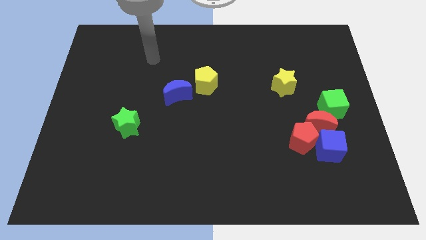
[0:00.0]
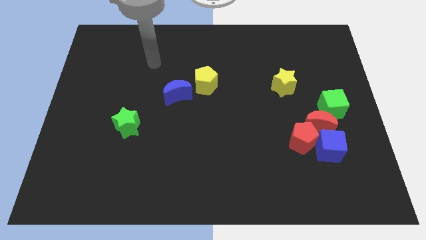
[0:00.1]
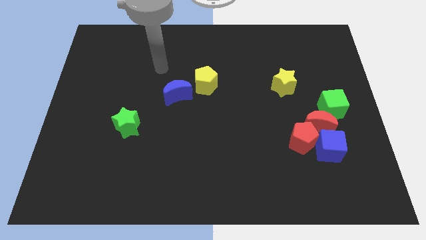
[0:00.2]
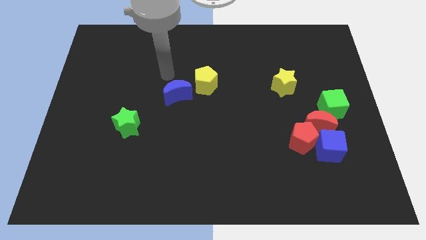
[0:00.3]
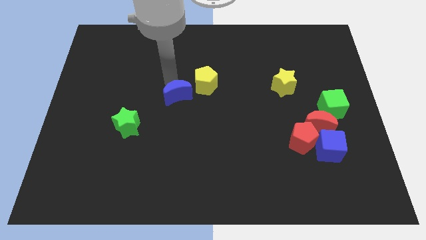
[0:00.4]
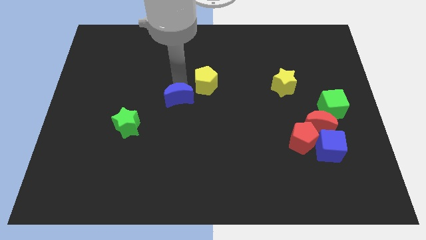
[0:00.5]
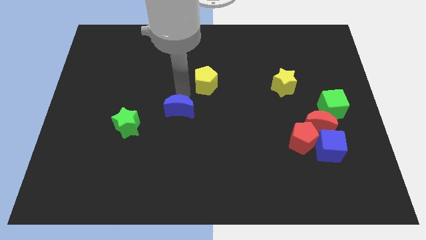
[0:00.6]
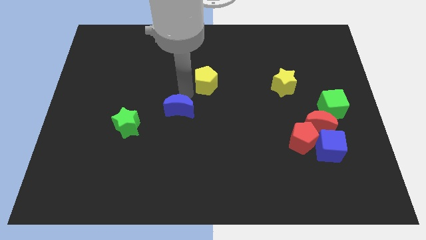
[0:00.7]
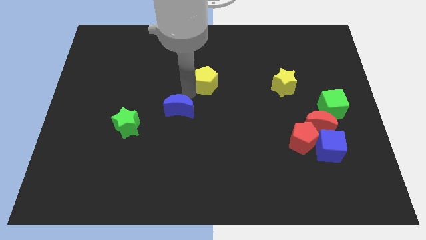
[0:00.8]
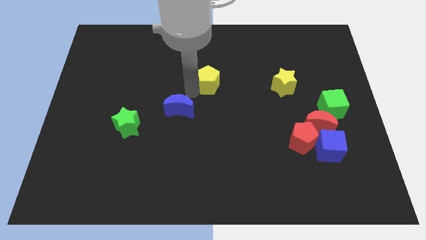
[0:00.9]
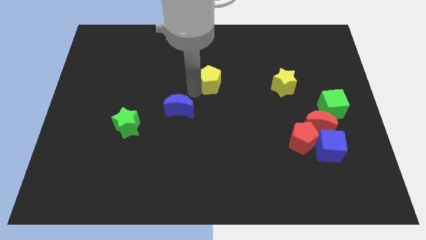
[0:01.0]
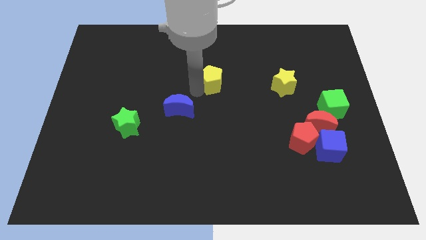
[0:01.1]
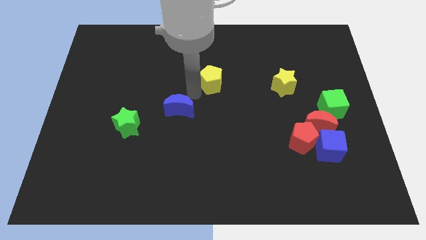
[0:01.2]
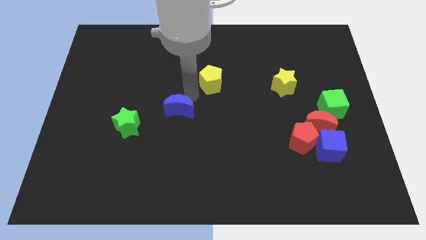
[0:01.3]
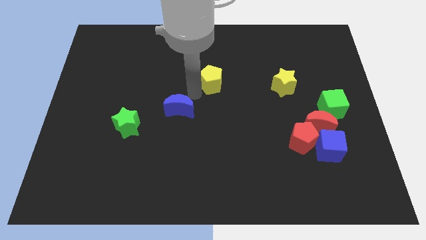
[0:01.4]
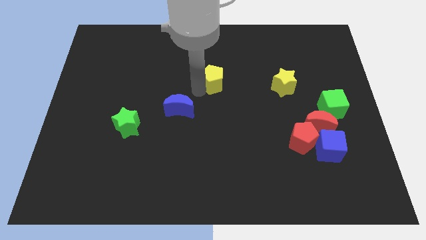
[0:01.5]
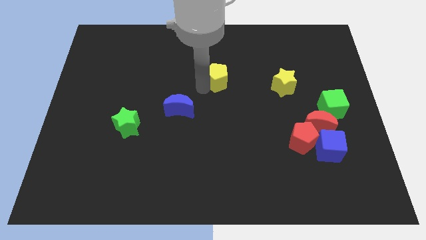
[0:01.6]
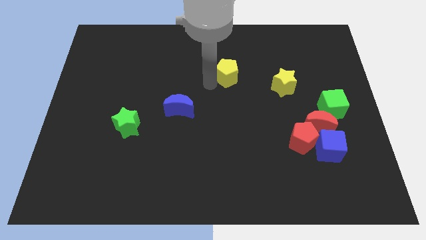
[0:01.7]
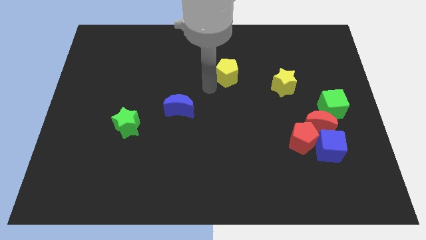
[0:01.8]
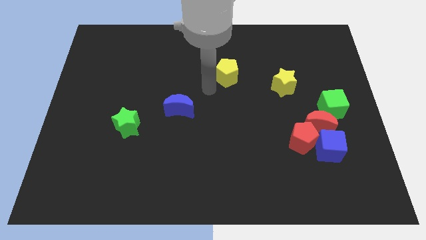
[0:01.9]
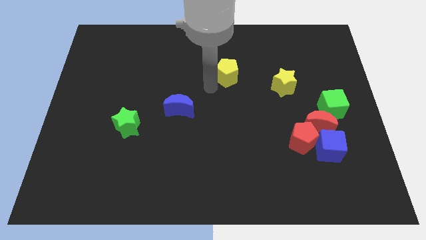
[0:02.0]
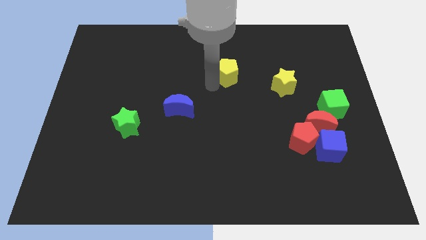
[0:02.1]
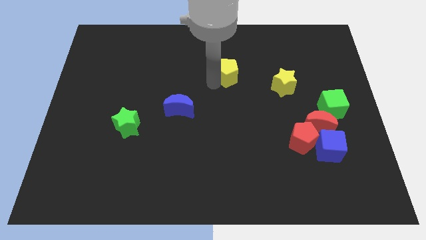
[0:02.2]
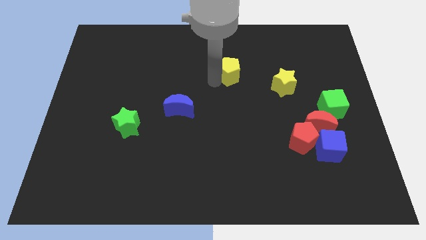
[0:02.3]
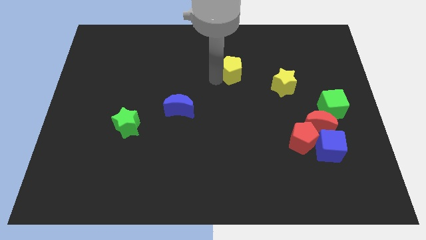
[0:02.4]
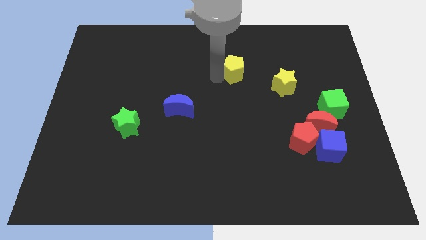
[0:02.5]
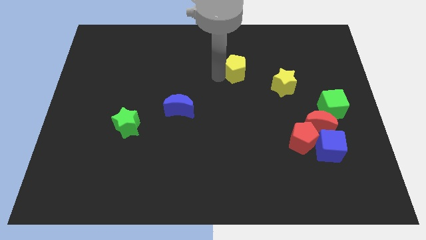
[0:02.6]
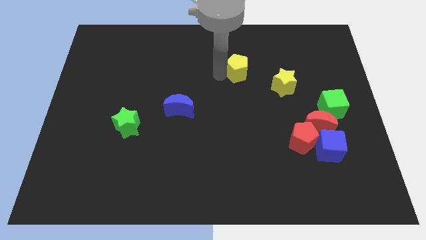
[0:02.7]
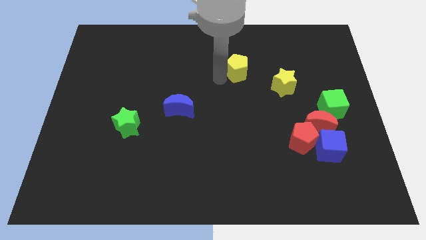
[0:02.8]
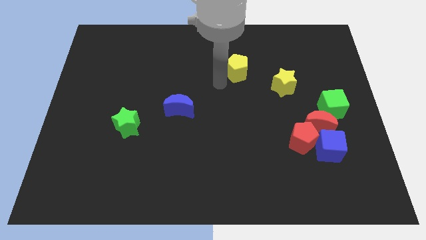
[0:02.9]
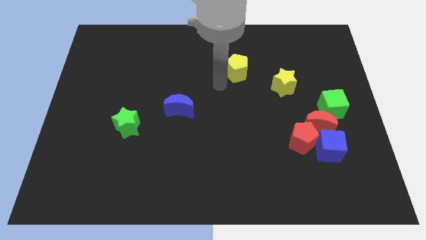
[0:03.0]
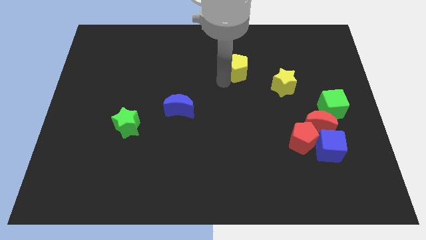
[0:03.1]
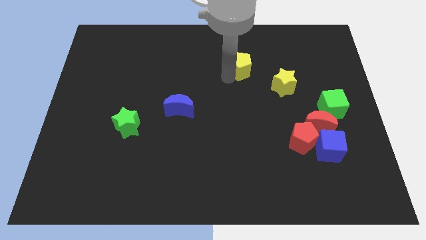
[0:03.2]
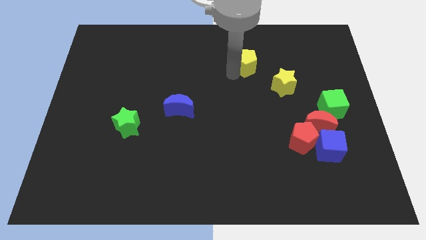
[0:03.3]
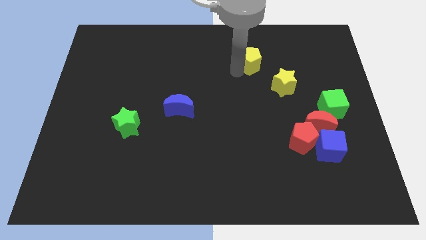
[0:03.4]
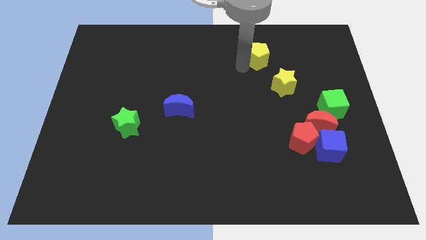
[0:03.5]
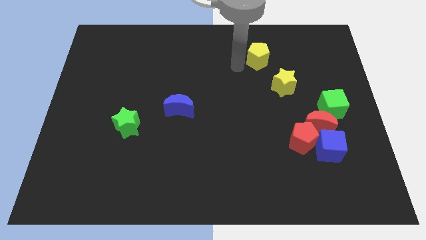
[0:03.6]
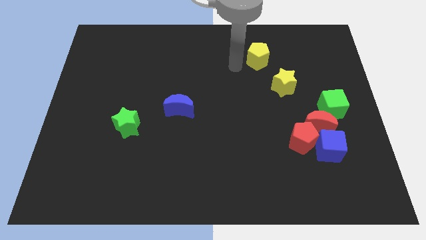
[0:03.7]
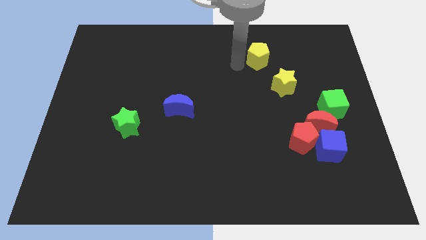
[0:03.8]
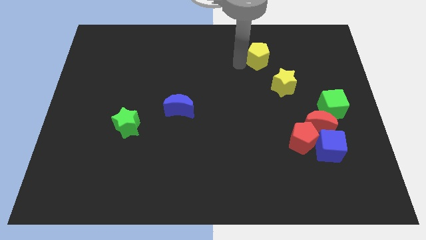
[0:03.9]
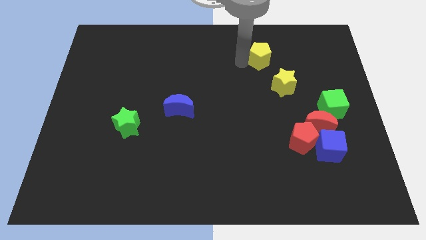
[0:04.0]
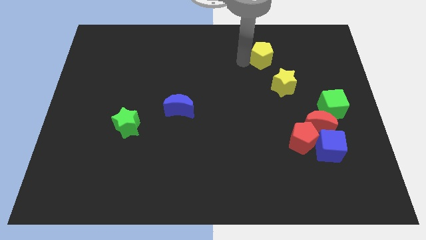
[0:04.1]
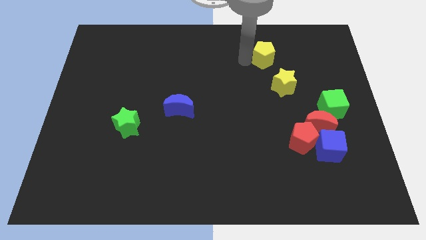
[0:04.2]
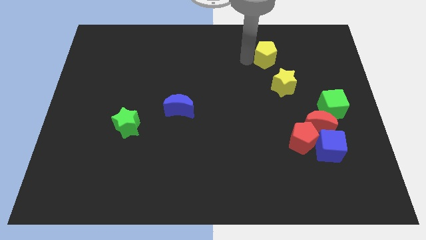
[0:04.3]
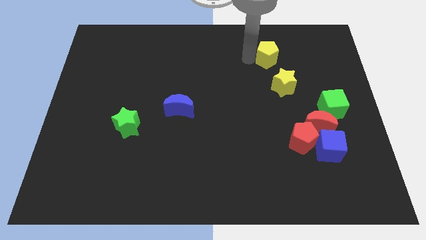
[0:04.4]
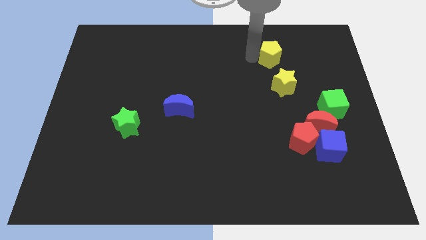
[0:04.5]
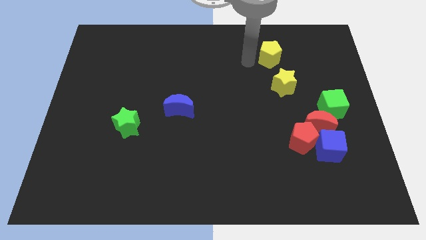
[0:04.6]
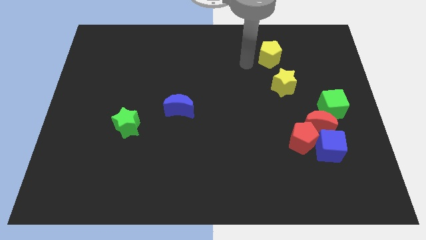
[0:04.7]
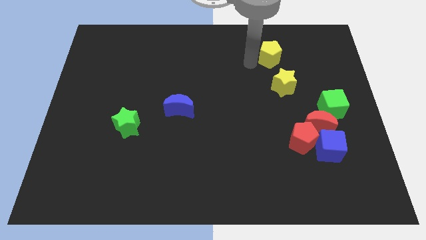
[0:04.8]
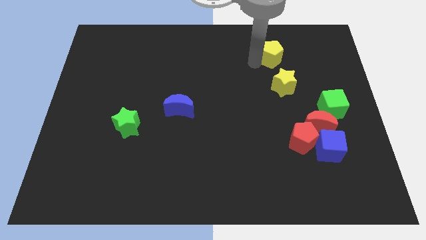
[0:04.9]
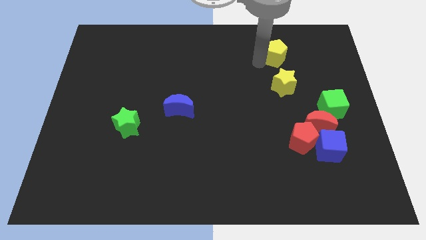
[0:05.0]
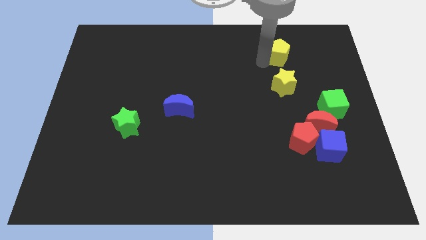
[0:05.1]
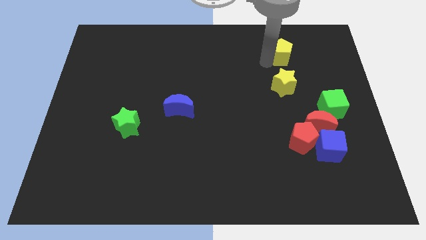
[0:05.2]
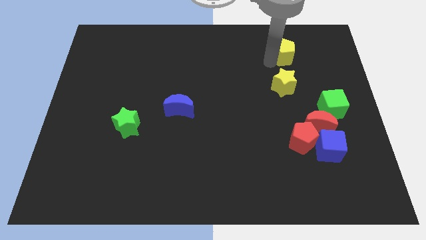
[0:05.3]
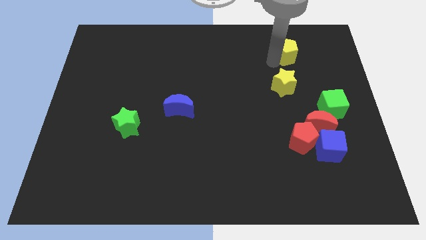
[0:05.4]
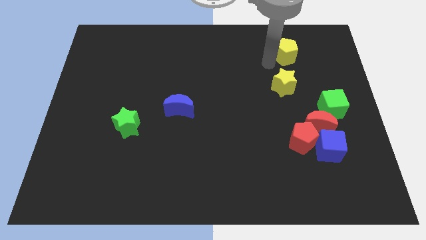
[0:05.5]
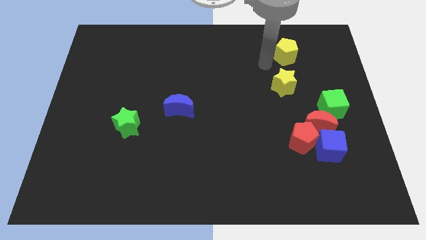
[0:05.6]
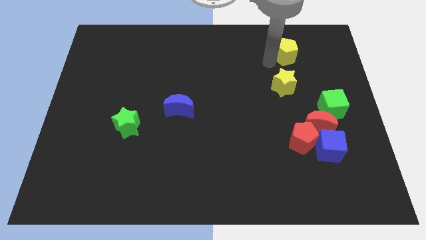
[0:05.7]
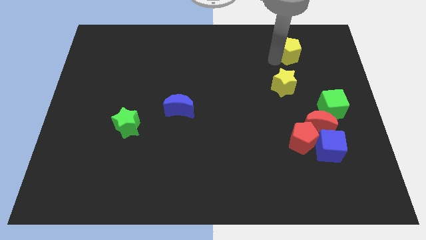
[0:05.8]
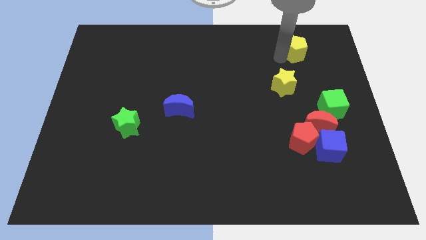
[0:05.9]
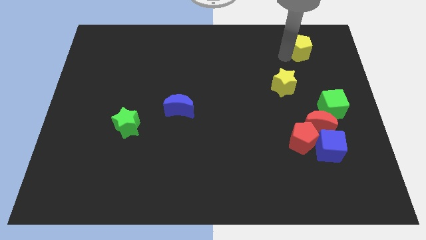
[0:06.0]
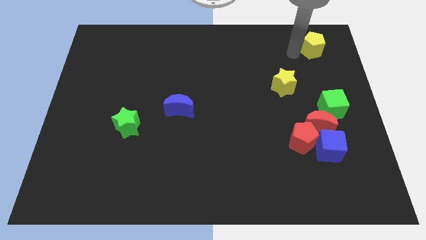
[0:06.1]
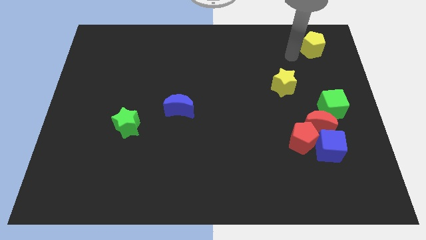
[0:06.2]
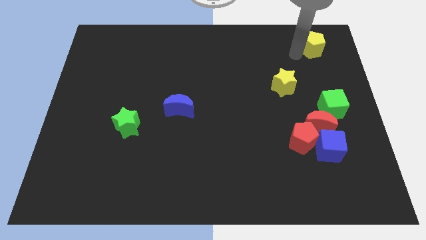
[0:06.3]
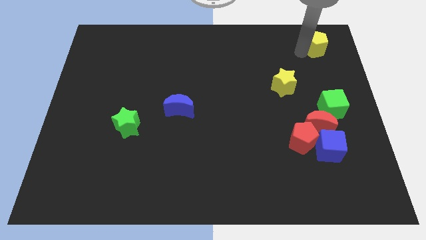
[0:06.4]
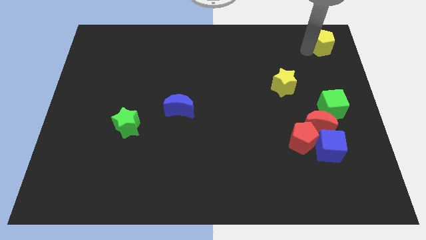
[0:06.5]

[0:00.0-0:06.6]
put the yellow pentagon to the top right of the board

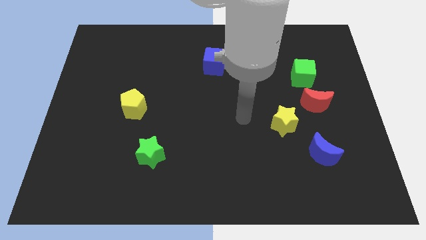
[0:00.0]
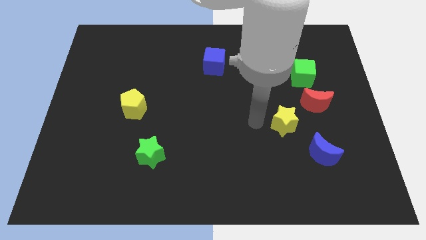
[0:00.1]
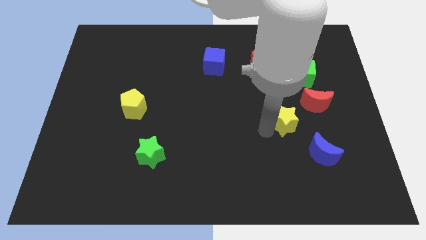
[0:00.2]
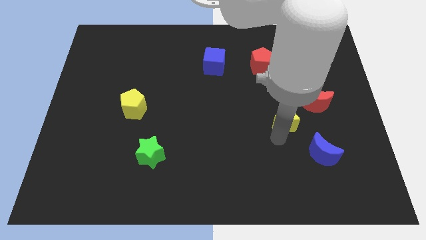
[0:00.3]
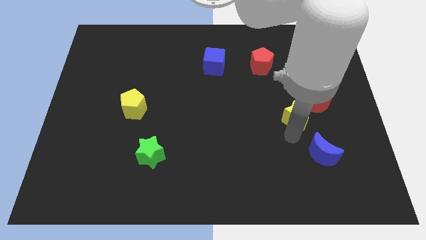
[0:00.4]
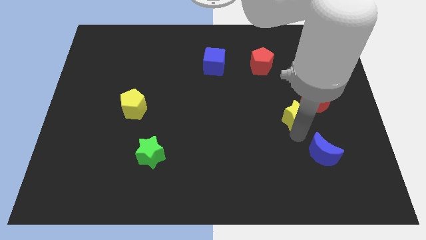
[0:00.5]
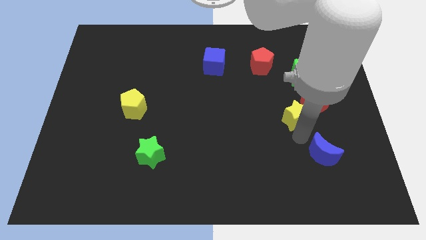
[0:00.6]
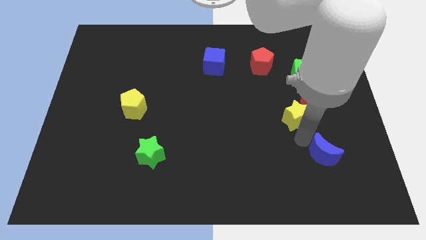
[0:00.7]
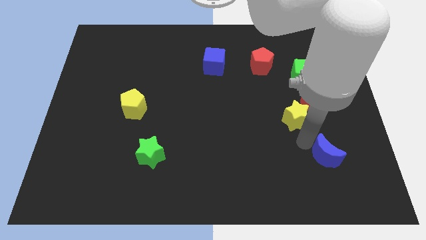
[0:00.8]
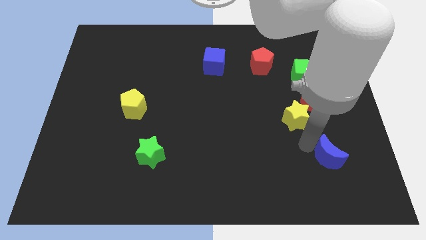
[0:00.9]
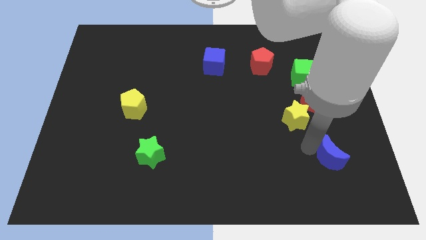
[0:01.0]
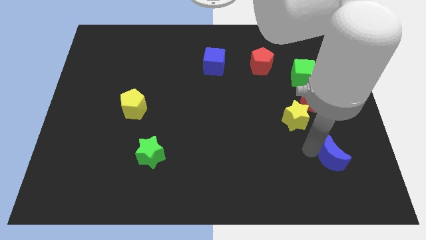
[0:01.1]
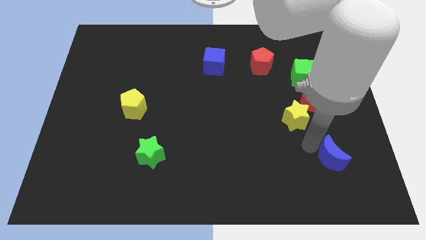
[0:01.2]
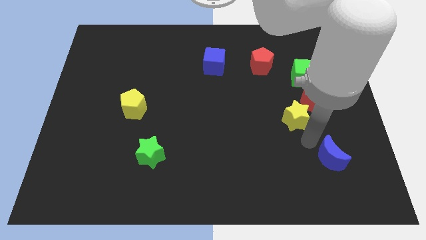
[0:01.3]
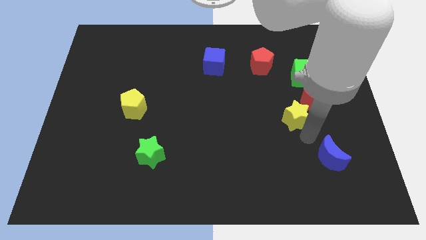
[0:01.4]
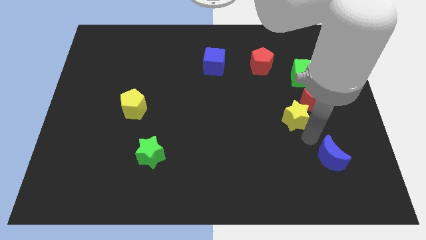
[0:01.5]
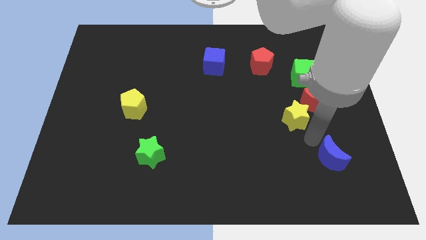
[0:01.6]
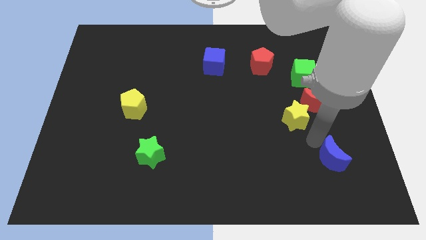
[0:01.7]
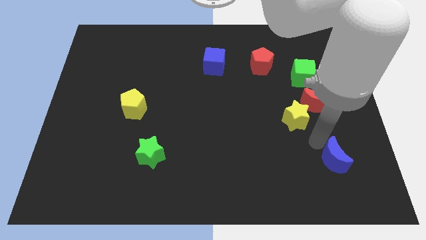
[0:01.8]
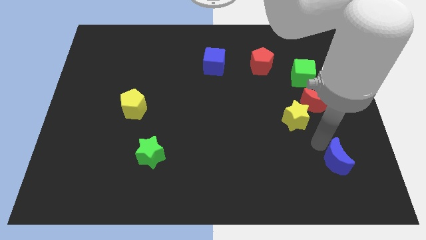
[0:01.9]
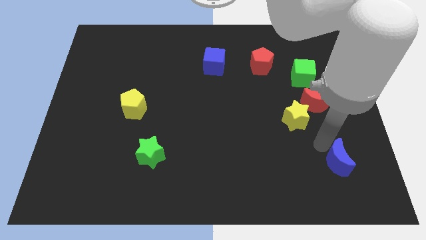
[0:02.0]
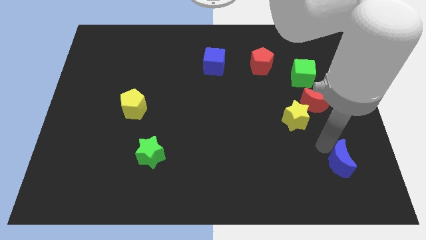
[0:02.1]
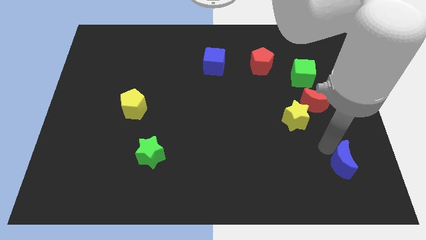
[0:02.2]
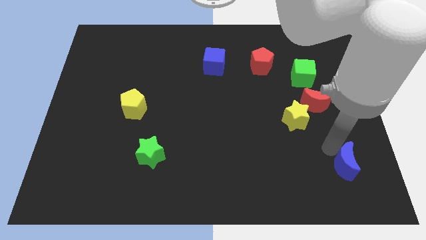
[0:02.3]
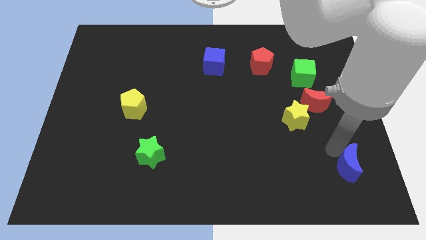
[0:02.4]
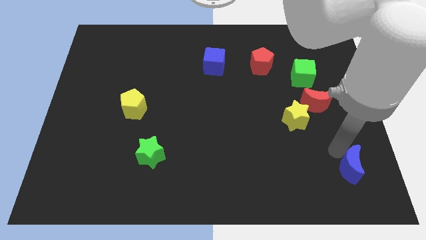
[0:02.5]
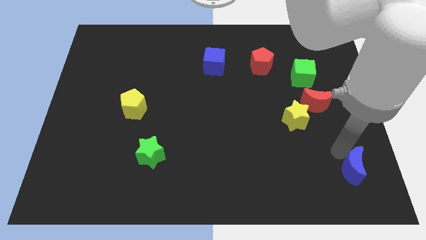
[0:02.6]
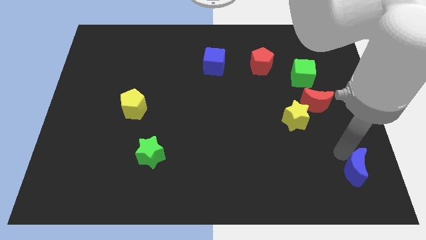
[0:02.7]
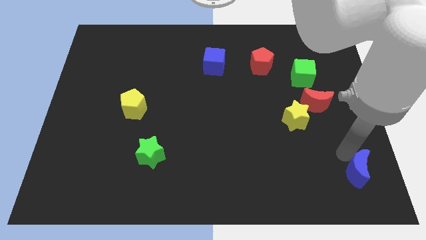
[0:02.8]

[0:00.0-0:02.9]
slide the blue moon to the bottom right of the board
